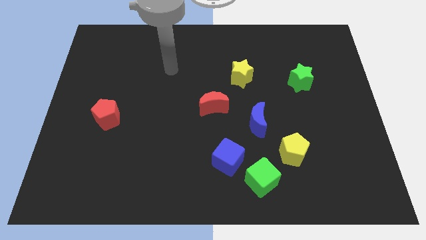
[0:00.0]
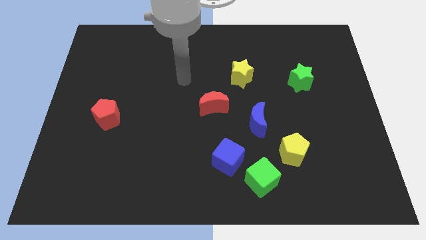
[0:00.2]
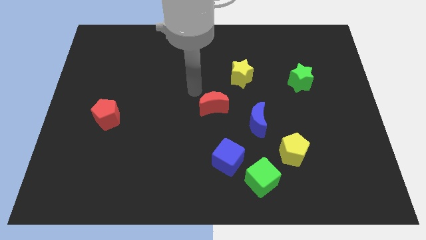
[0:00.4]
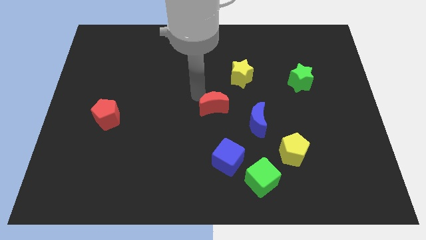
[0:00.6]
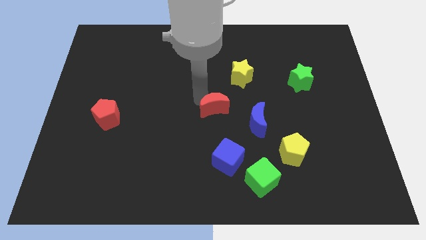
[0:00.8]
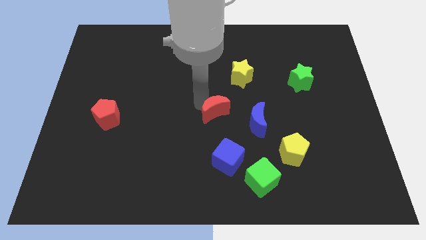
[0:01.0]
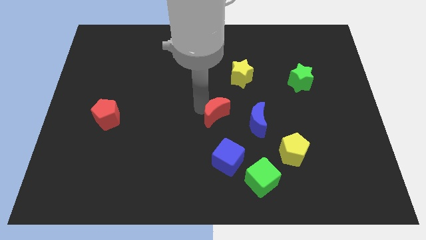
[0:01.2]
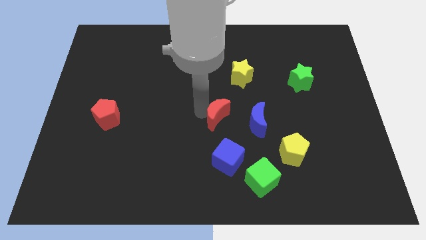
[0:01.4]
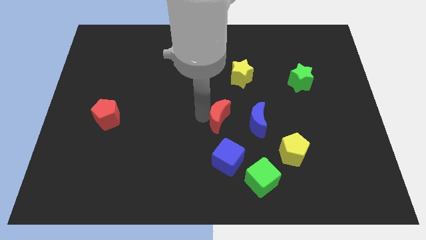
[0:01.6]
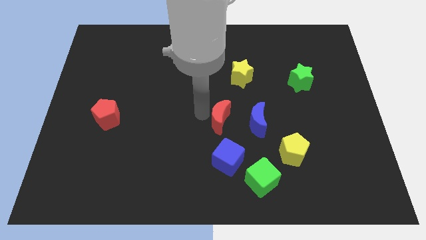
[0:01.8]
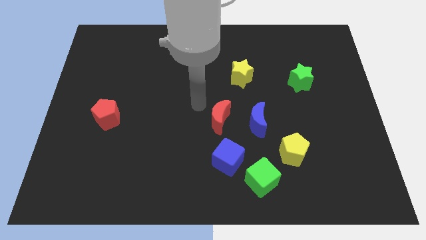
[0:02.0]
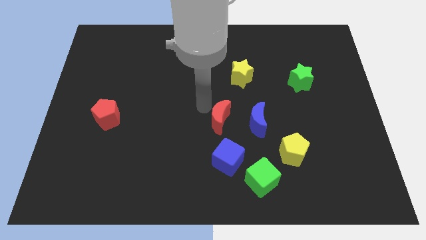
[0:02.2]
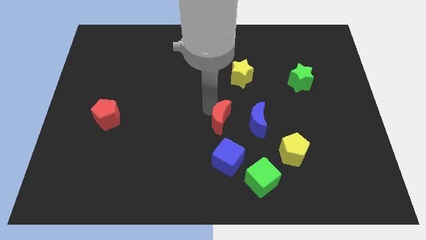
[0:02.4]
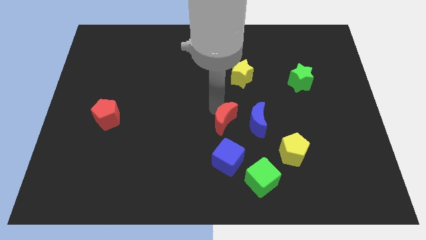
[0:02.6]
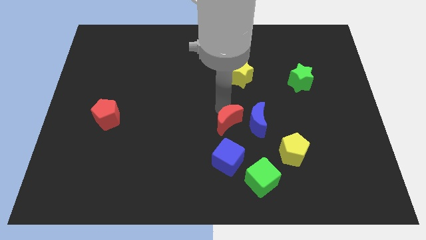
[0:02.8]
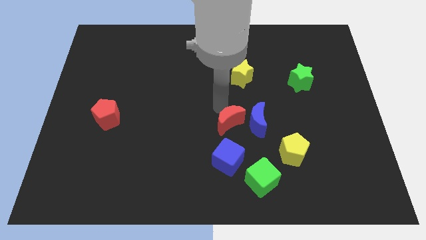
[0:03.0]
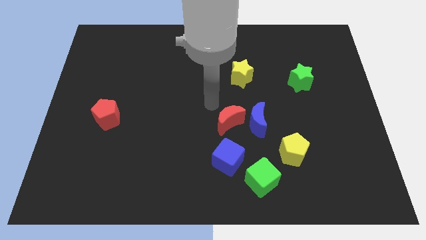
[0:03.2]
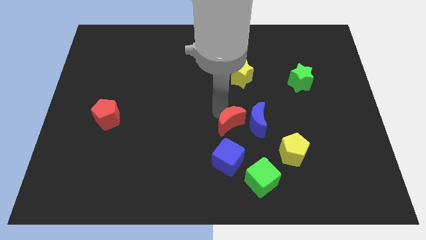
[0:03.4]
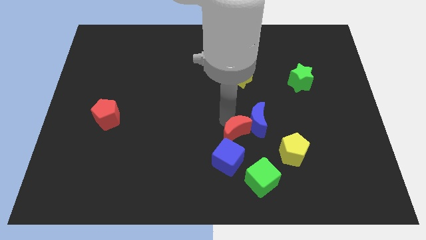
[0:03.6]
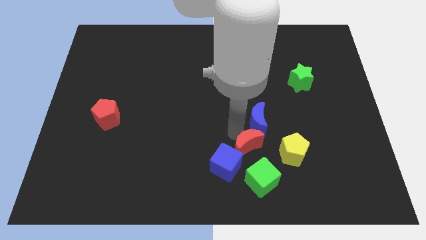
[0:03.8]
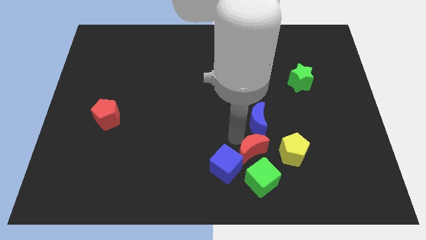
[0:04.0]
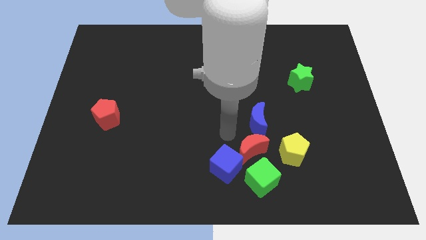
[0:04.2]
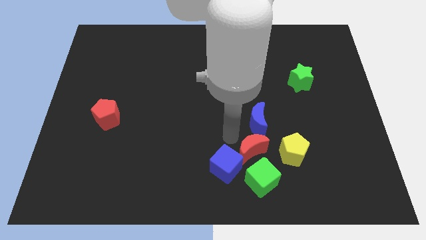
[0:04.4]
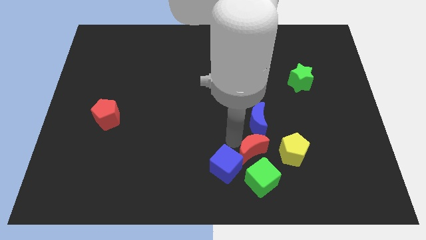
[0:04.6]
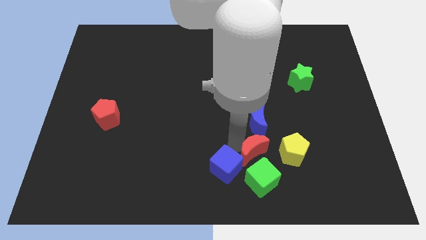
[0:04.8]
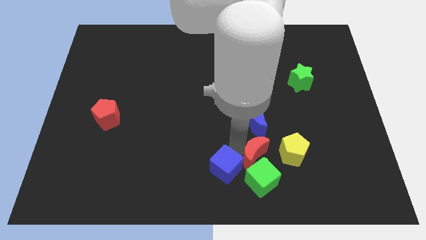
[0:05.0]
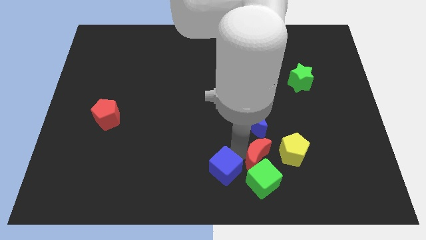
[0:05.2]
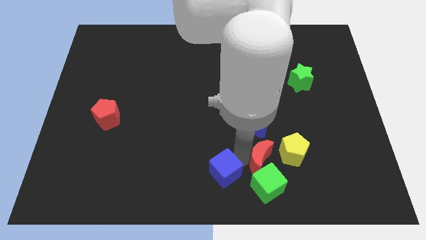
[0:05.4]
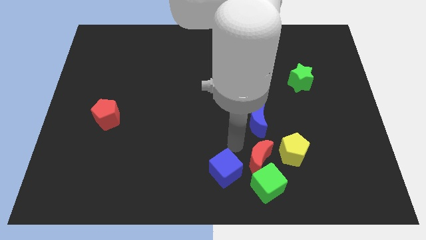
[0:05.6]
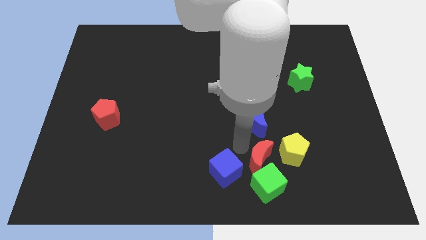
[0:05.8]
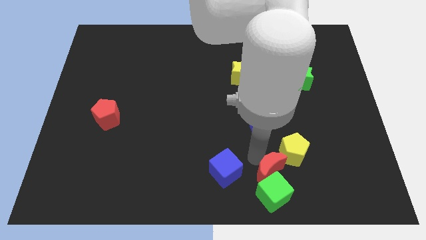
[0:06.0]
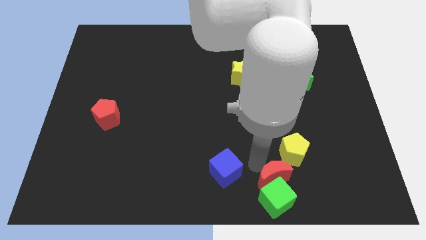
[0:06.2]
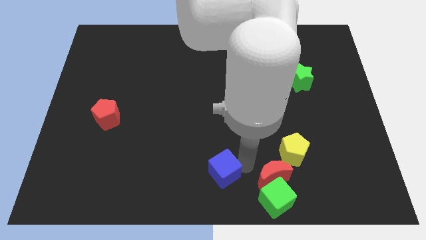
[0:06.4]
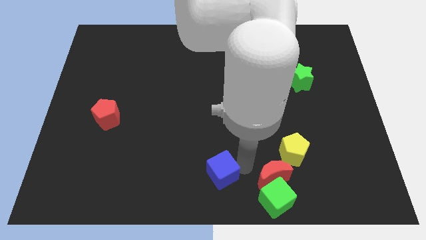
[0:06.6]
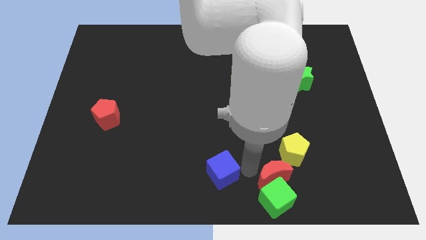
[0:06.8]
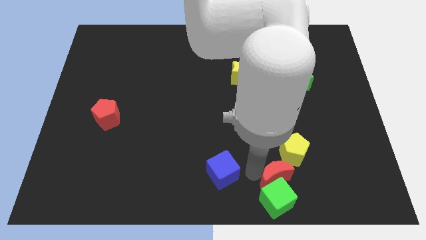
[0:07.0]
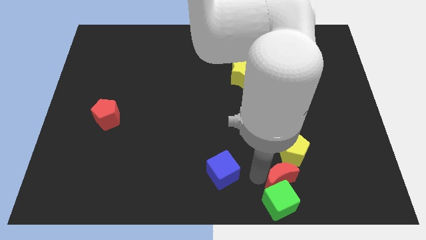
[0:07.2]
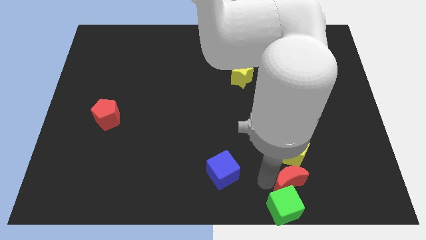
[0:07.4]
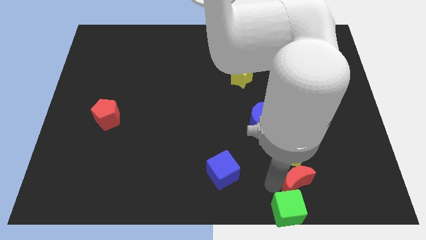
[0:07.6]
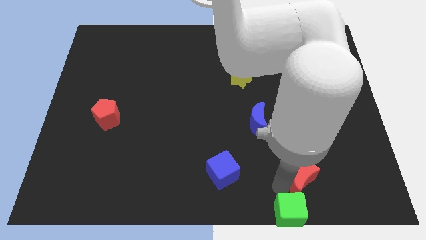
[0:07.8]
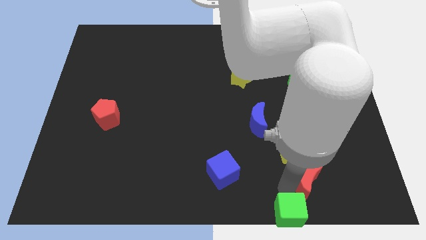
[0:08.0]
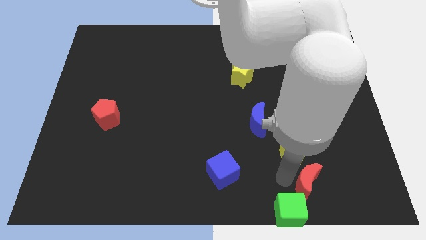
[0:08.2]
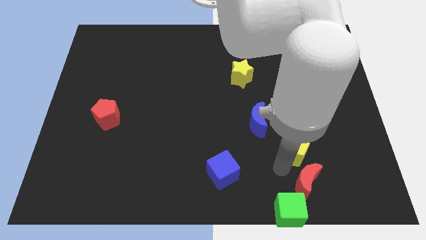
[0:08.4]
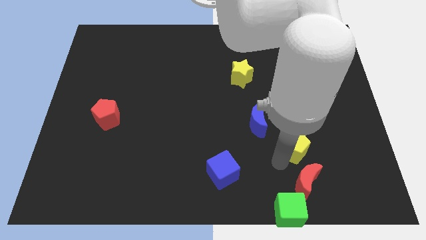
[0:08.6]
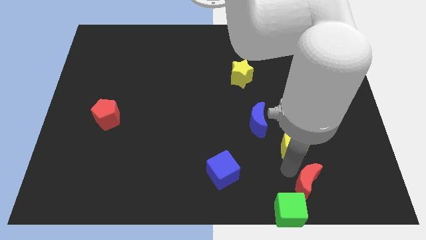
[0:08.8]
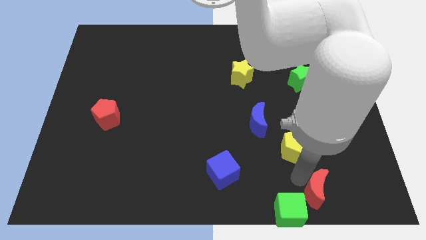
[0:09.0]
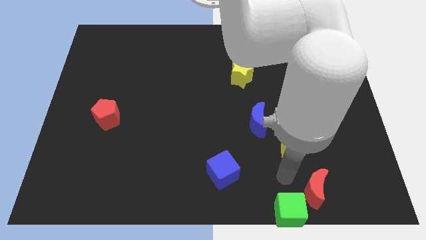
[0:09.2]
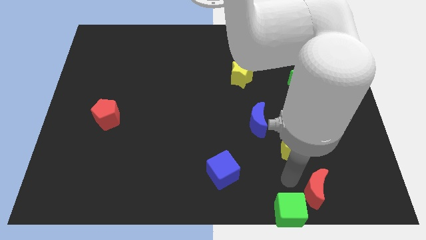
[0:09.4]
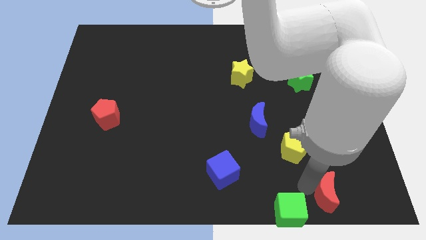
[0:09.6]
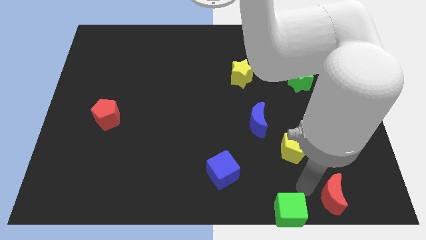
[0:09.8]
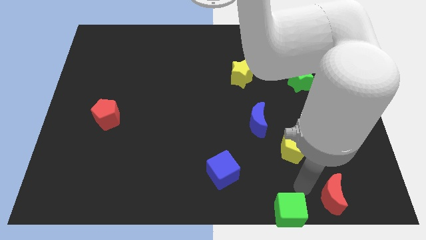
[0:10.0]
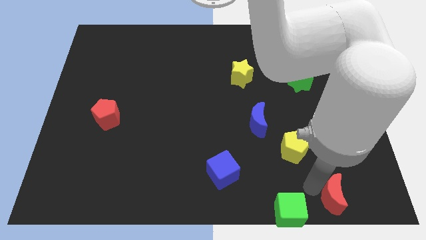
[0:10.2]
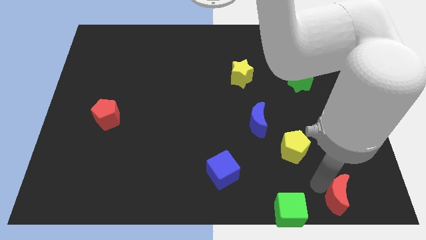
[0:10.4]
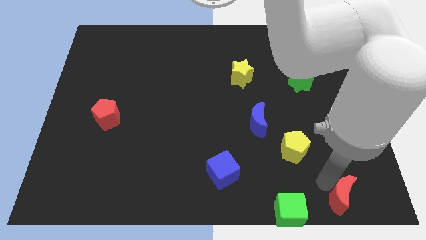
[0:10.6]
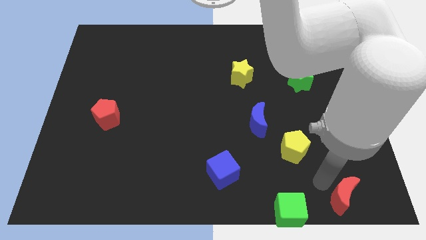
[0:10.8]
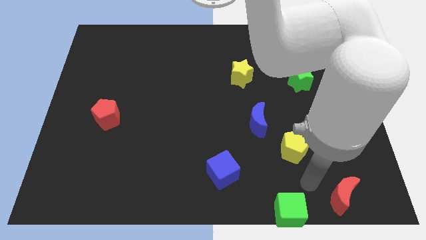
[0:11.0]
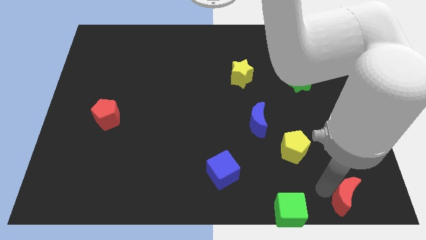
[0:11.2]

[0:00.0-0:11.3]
move the red moon to the lower right corner

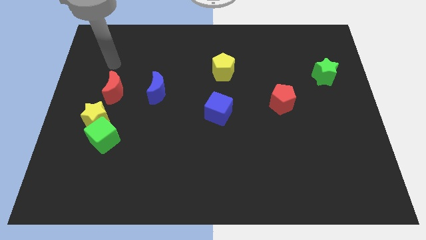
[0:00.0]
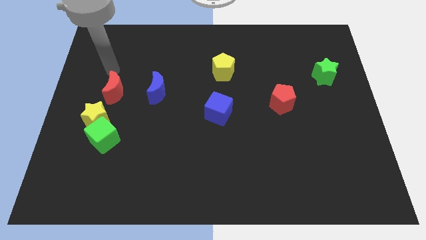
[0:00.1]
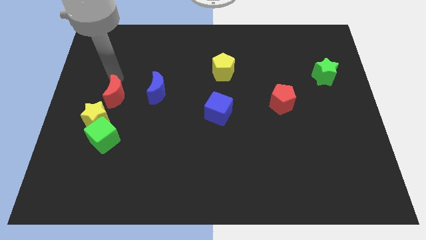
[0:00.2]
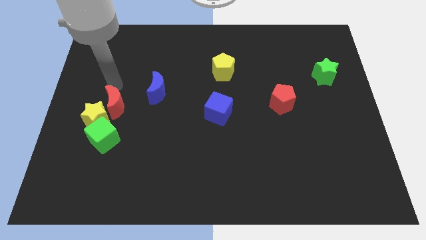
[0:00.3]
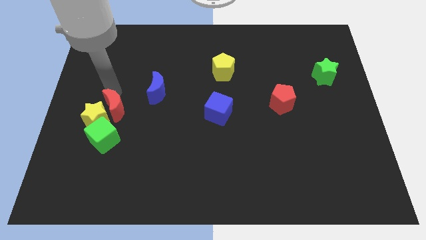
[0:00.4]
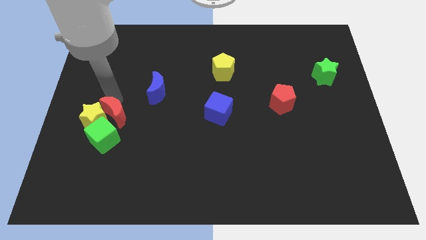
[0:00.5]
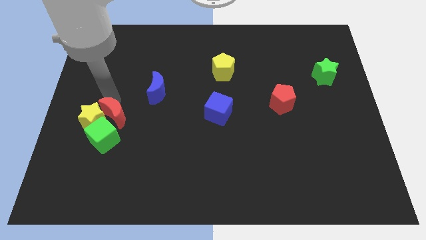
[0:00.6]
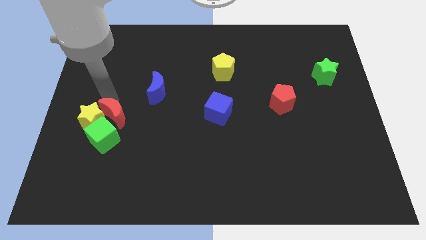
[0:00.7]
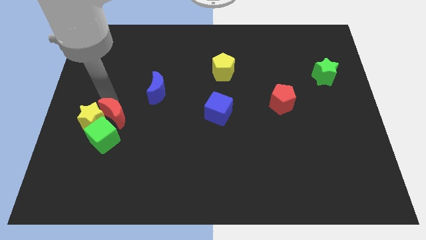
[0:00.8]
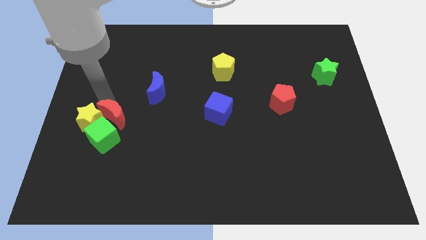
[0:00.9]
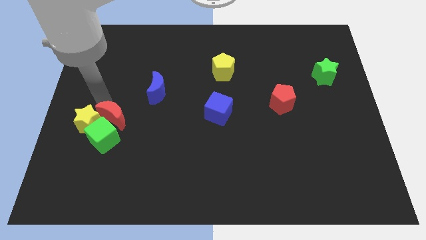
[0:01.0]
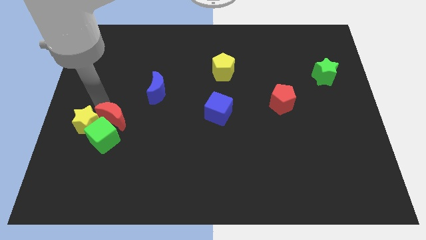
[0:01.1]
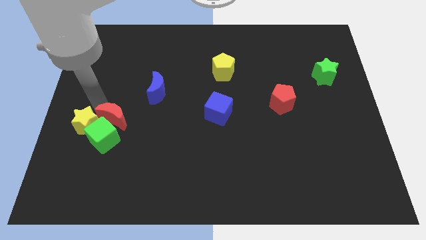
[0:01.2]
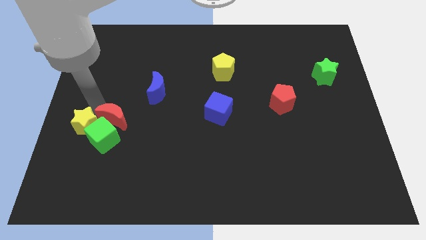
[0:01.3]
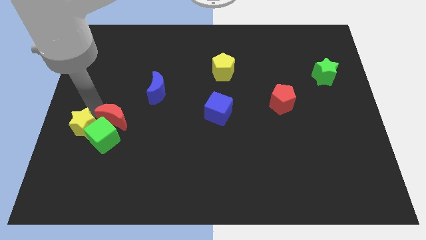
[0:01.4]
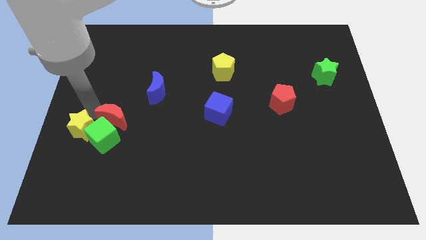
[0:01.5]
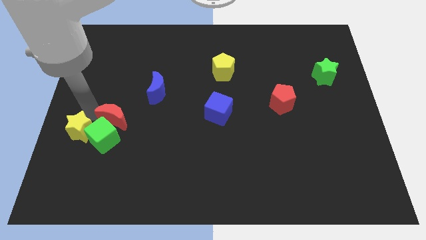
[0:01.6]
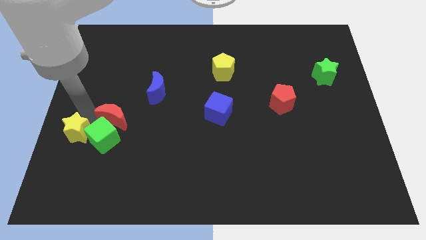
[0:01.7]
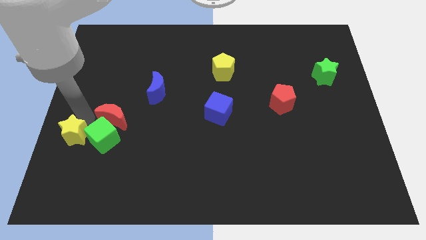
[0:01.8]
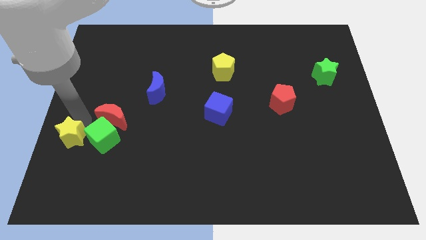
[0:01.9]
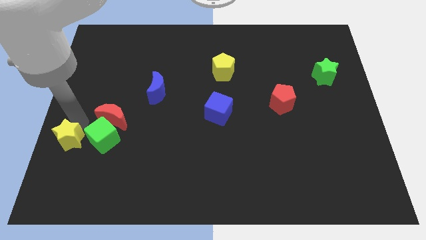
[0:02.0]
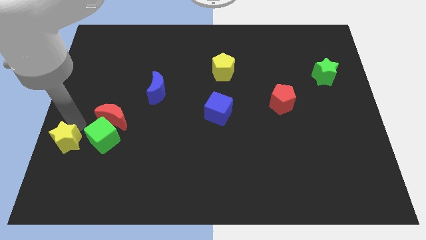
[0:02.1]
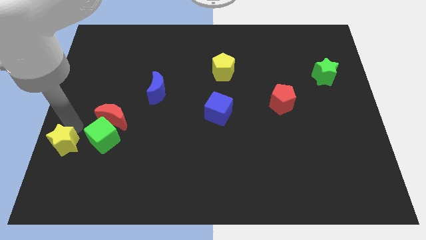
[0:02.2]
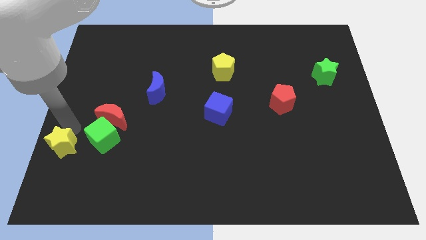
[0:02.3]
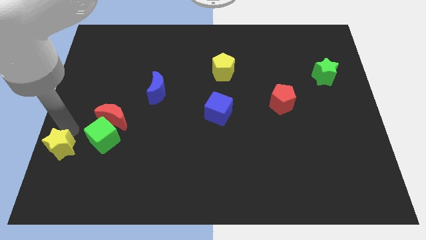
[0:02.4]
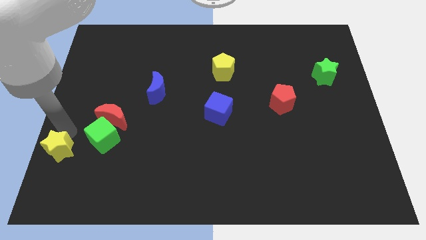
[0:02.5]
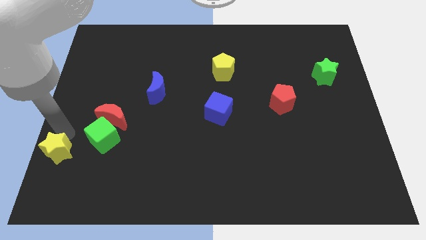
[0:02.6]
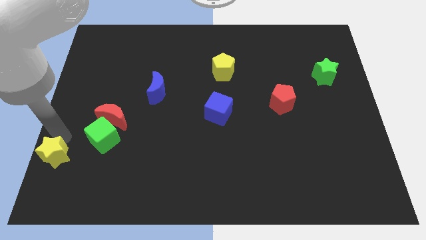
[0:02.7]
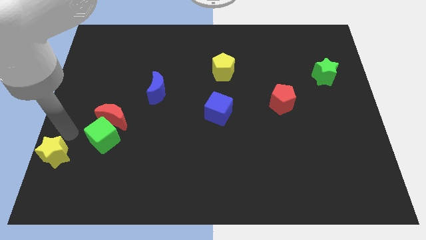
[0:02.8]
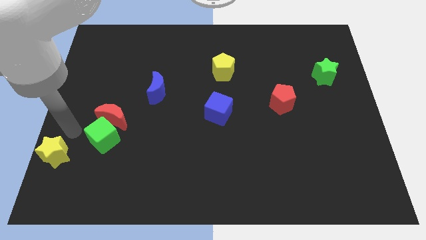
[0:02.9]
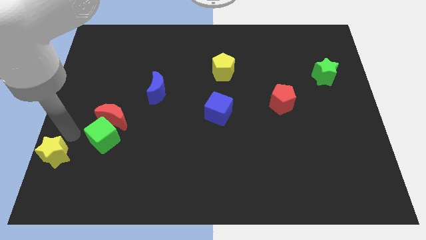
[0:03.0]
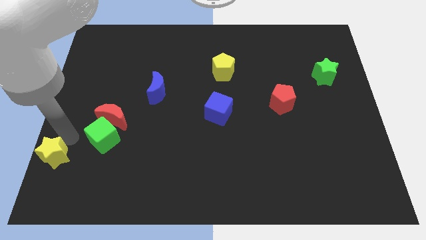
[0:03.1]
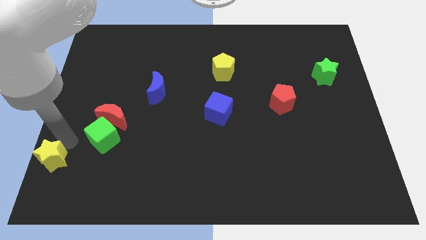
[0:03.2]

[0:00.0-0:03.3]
slide the yellow star to the lower left corner
